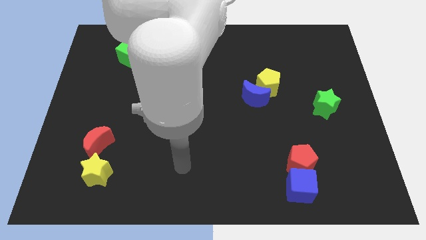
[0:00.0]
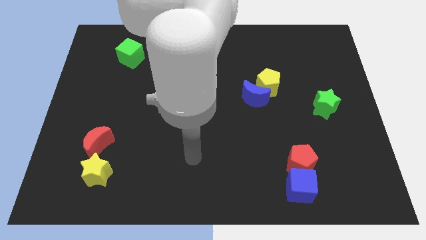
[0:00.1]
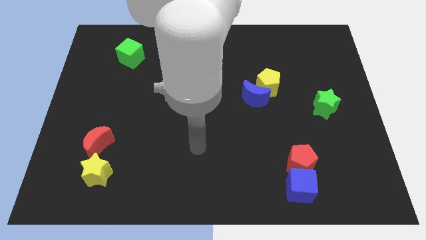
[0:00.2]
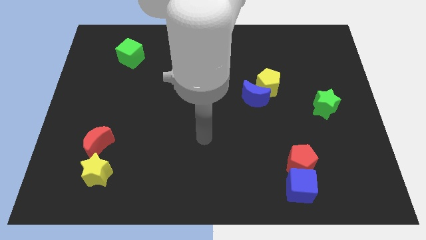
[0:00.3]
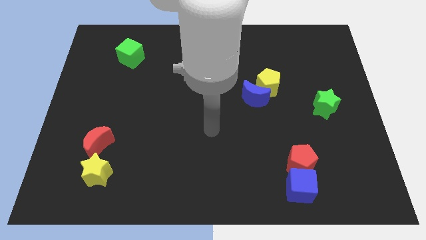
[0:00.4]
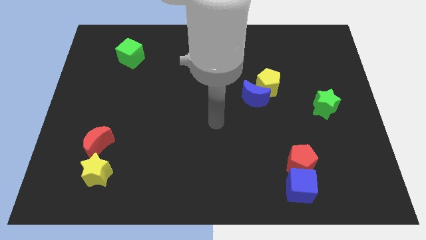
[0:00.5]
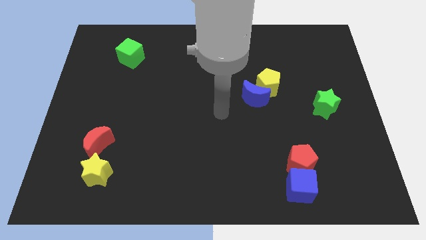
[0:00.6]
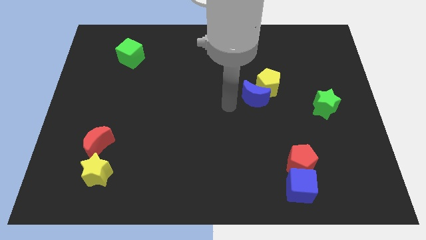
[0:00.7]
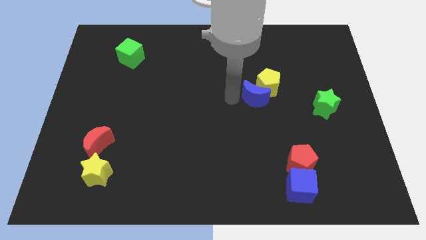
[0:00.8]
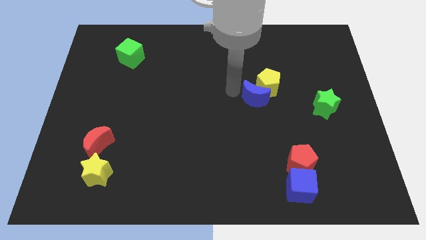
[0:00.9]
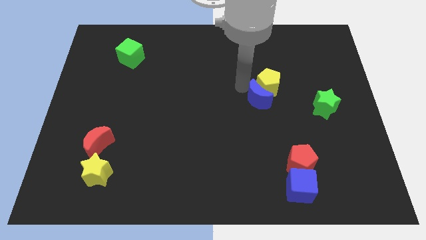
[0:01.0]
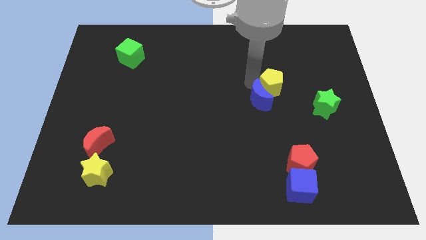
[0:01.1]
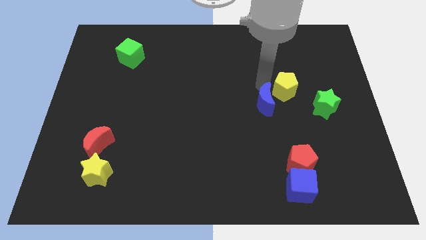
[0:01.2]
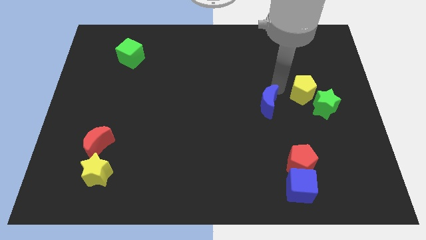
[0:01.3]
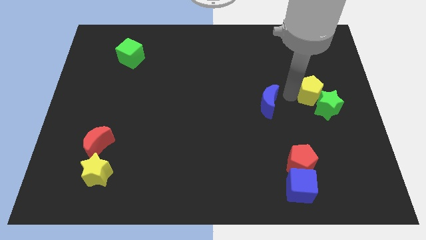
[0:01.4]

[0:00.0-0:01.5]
move the blue moon away from the yellow pentagon

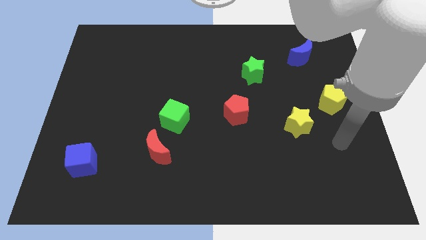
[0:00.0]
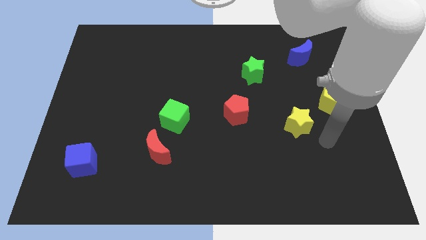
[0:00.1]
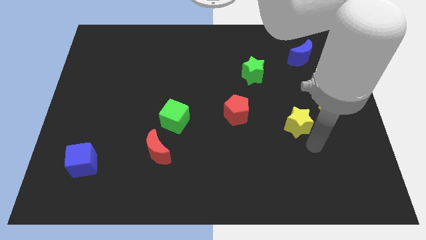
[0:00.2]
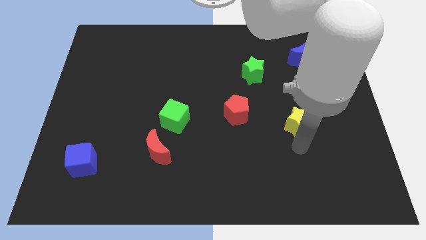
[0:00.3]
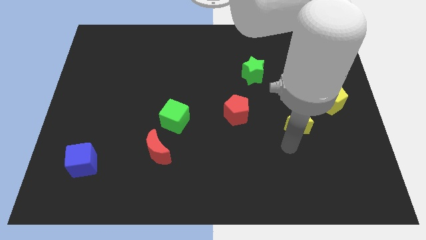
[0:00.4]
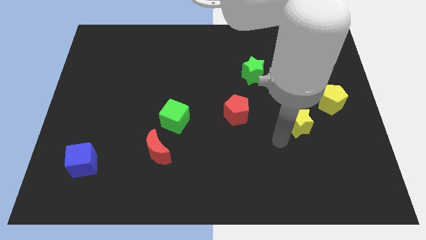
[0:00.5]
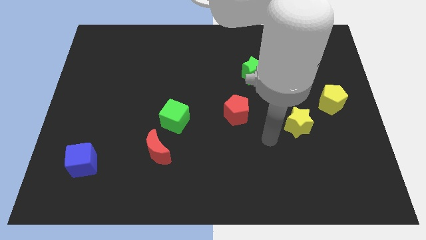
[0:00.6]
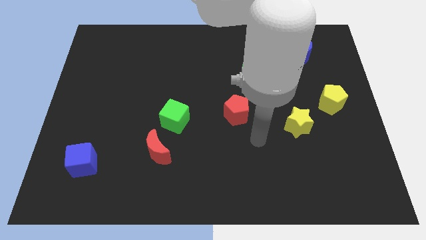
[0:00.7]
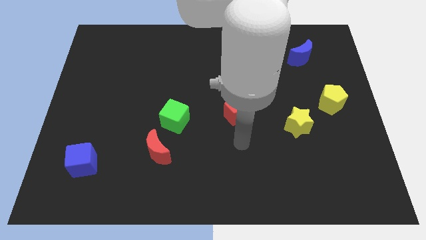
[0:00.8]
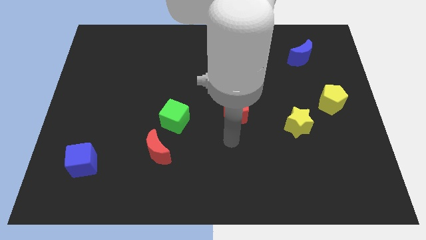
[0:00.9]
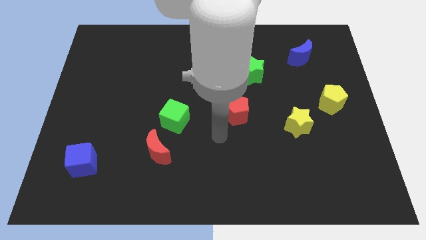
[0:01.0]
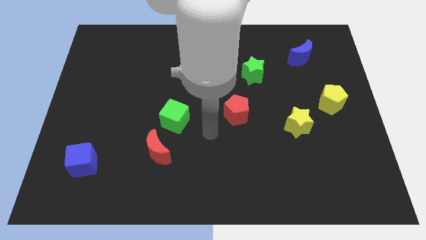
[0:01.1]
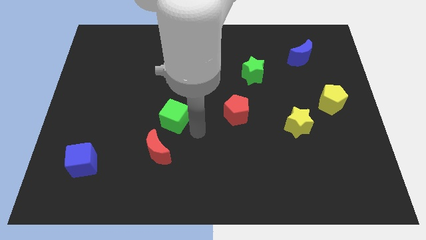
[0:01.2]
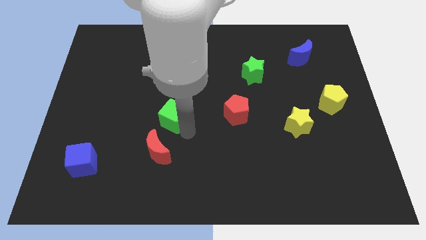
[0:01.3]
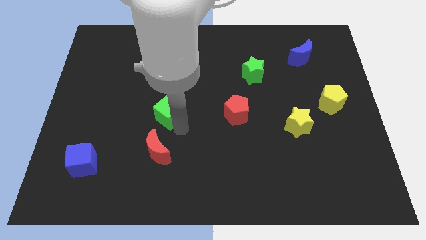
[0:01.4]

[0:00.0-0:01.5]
pull the red moon apart from the green cube

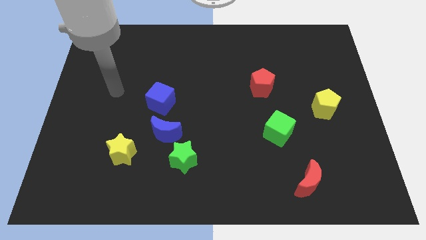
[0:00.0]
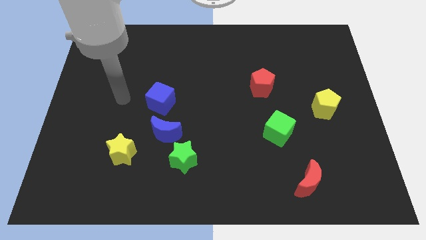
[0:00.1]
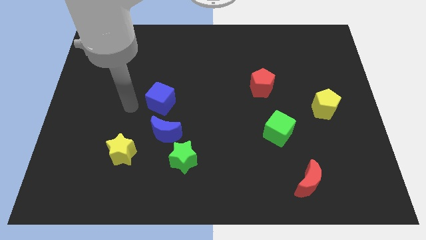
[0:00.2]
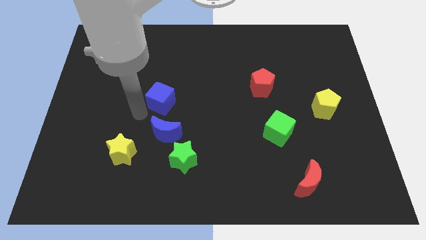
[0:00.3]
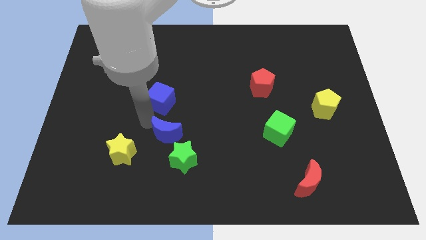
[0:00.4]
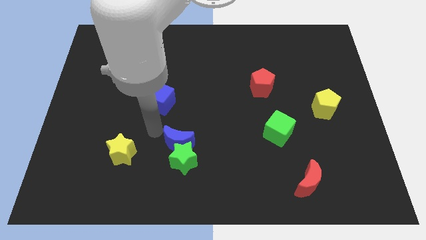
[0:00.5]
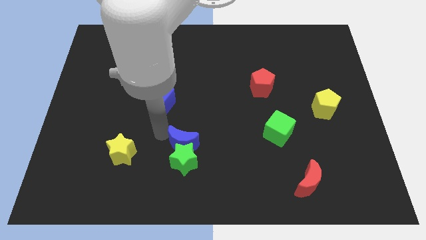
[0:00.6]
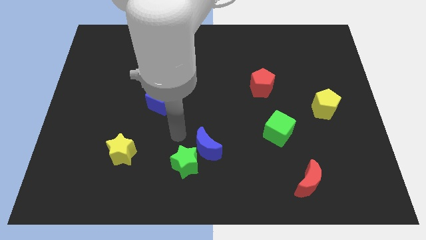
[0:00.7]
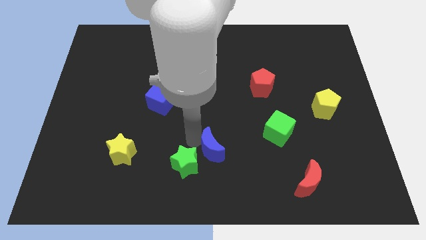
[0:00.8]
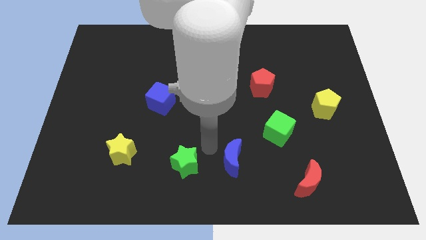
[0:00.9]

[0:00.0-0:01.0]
pull the green star apart from the blue moon

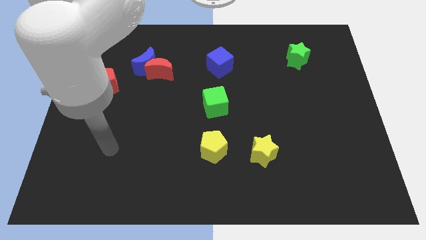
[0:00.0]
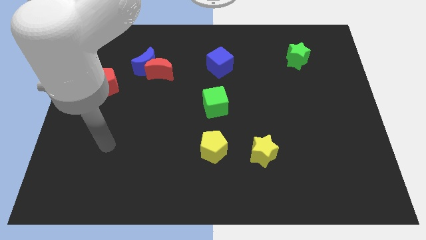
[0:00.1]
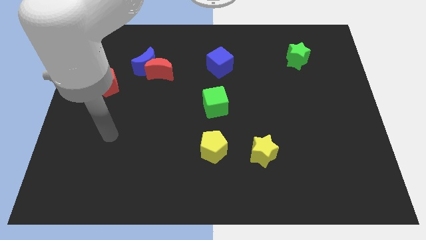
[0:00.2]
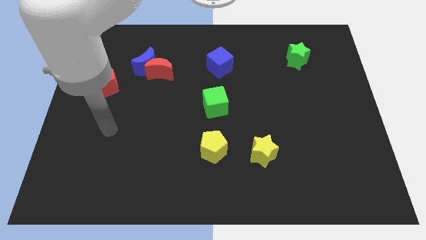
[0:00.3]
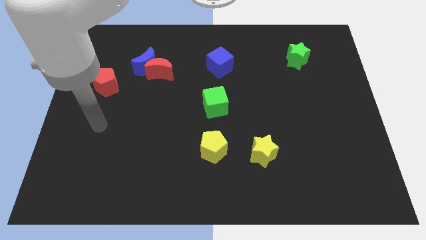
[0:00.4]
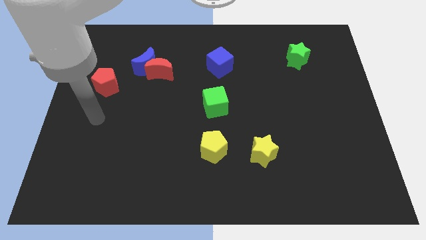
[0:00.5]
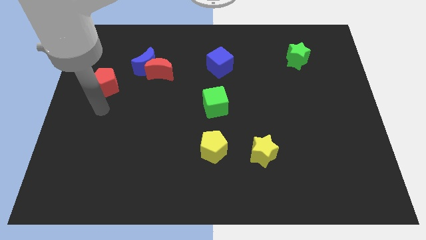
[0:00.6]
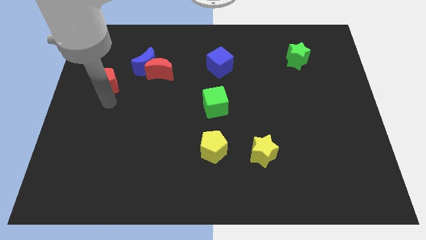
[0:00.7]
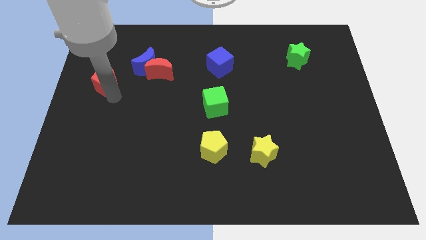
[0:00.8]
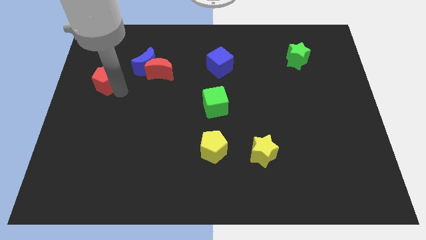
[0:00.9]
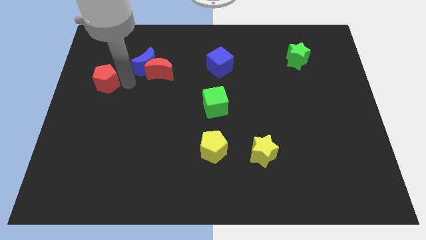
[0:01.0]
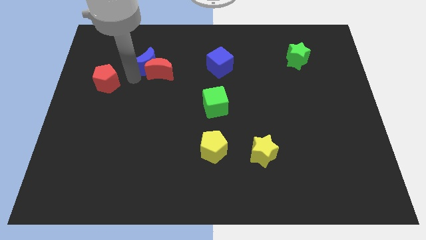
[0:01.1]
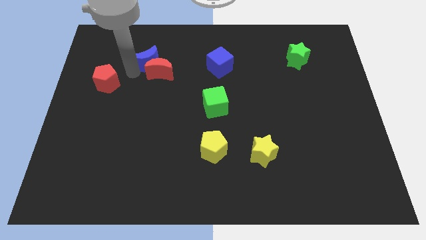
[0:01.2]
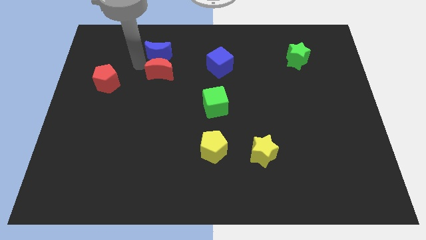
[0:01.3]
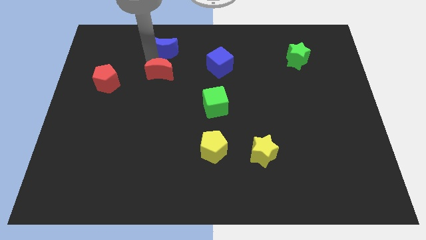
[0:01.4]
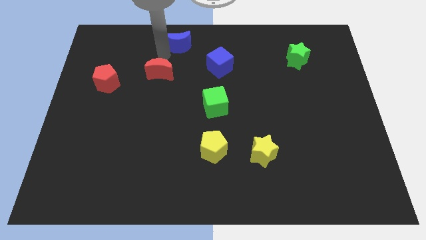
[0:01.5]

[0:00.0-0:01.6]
pull the red moon apart from the blue moon

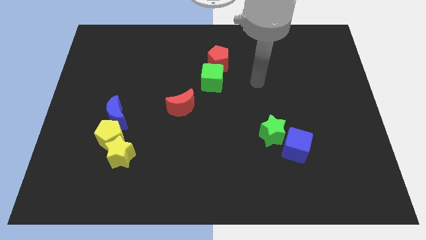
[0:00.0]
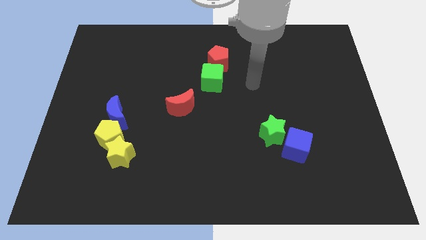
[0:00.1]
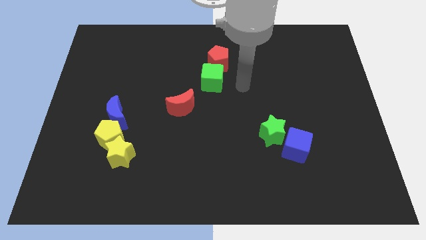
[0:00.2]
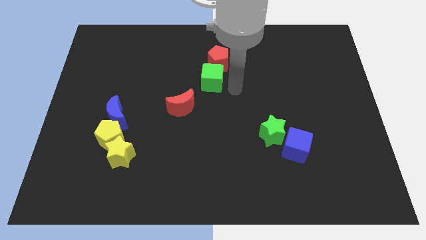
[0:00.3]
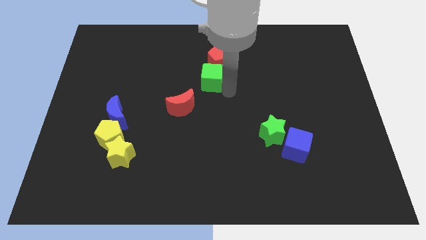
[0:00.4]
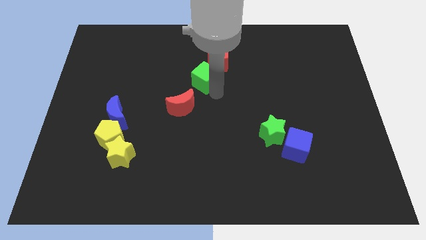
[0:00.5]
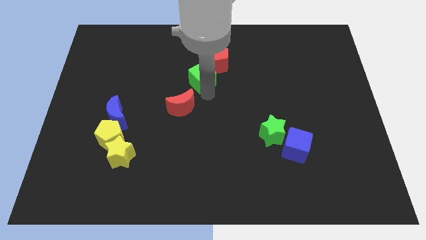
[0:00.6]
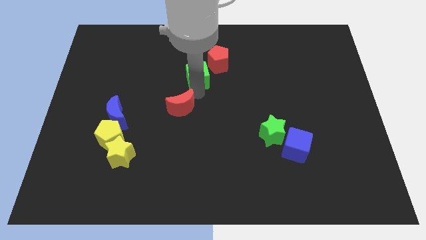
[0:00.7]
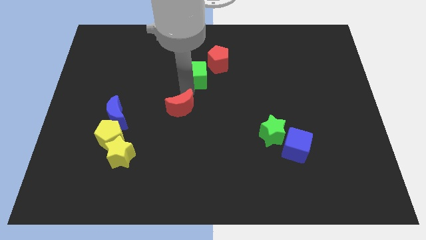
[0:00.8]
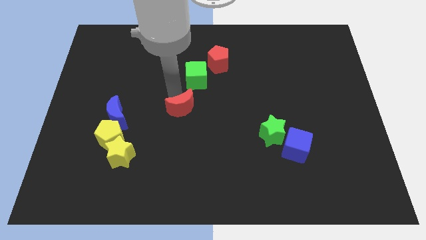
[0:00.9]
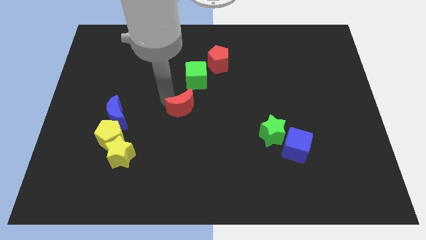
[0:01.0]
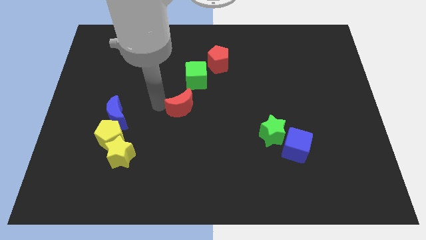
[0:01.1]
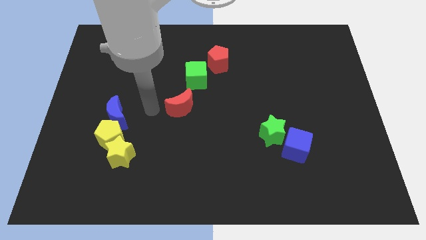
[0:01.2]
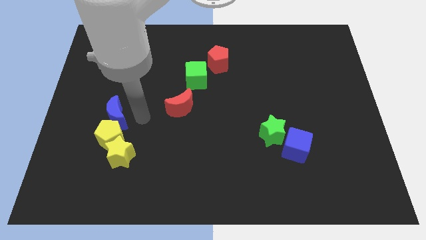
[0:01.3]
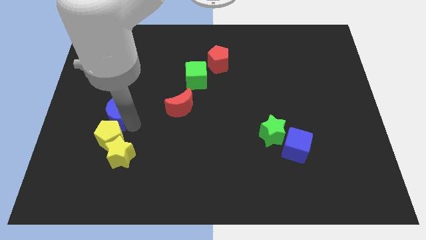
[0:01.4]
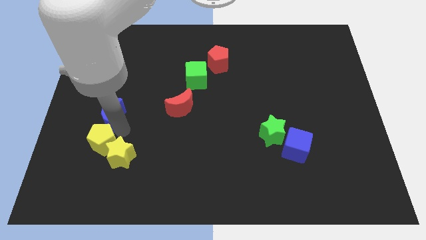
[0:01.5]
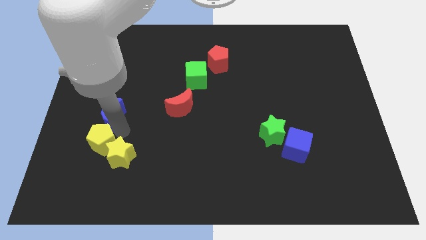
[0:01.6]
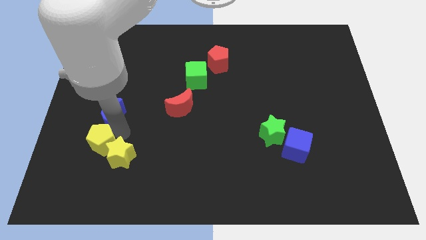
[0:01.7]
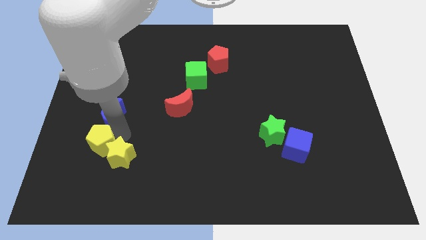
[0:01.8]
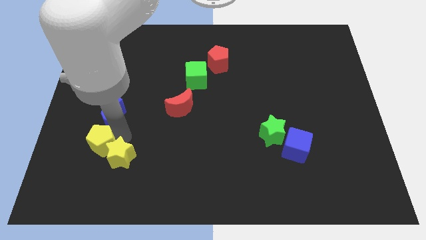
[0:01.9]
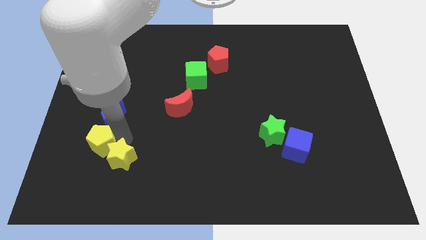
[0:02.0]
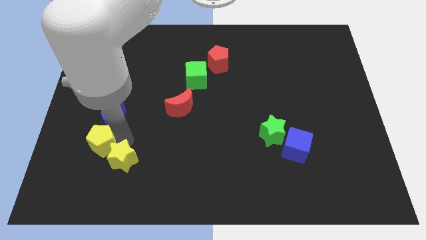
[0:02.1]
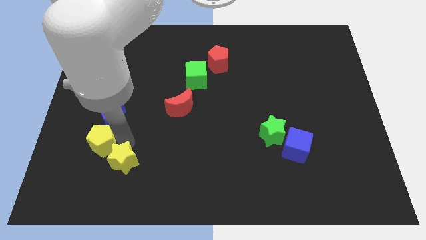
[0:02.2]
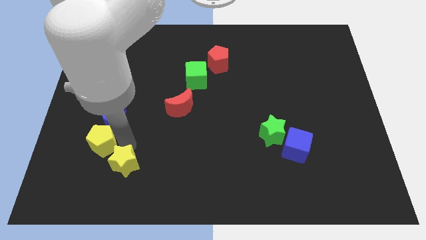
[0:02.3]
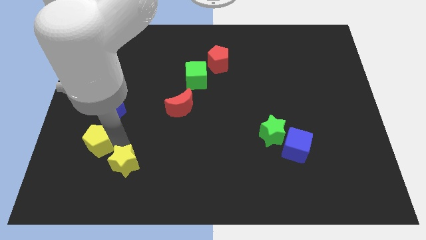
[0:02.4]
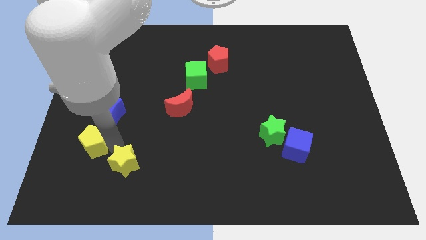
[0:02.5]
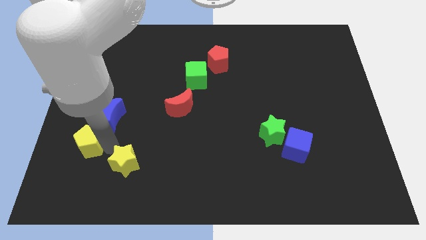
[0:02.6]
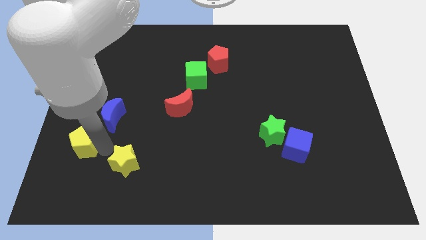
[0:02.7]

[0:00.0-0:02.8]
pull the yellow star apart from the yellow pentagon

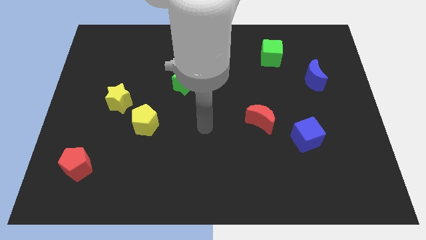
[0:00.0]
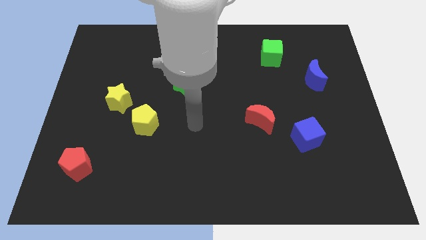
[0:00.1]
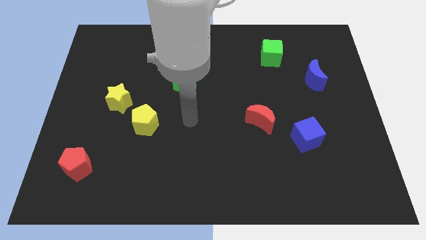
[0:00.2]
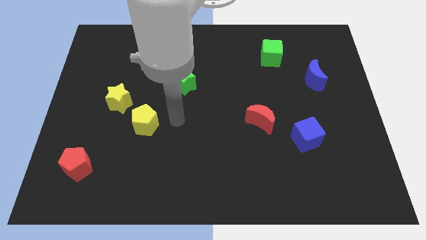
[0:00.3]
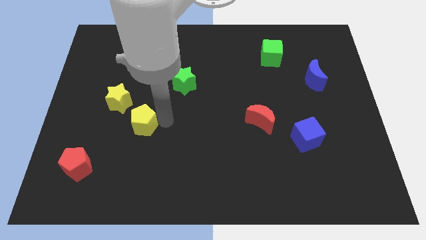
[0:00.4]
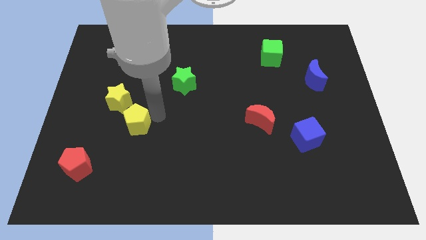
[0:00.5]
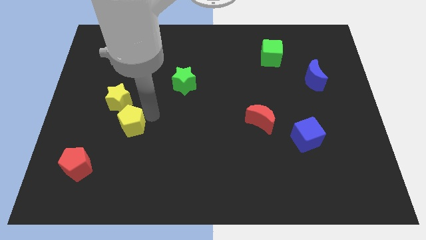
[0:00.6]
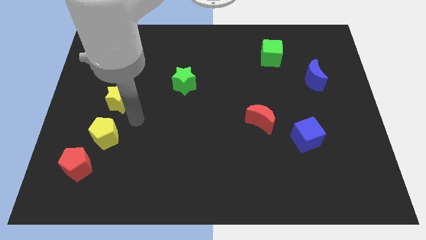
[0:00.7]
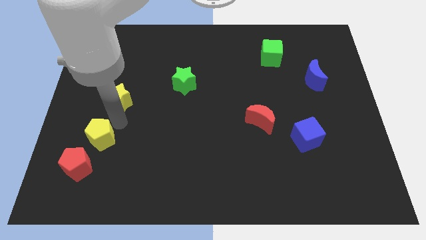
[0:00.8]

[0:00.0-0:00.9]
move the yellow star away from the yellow pentagon
